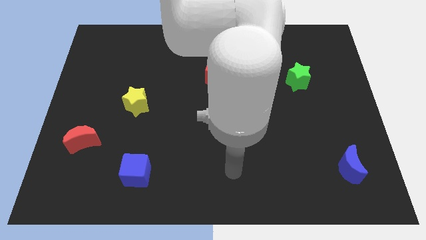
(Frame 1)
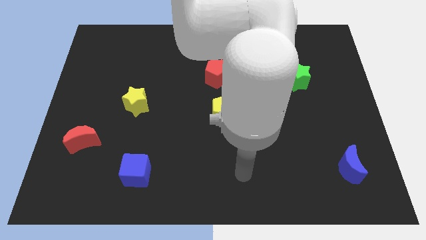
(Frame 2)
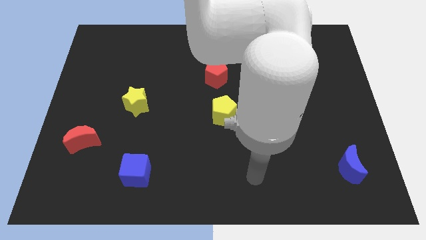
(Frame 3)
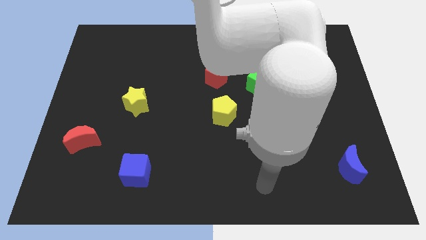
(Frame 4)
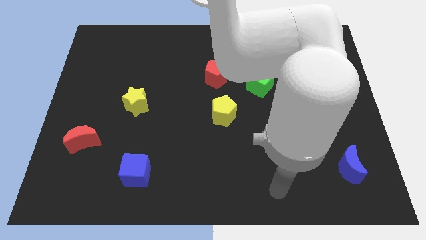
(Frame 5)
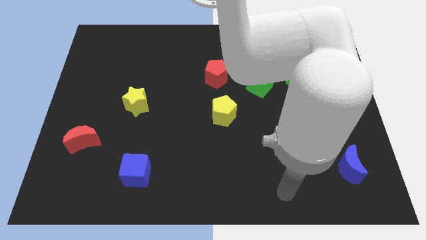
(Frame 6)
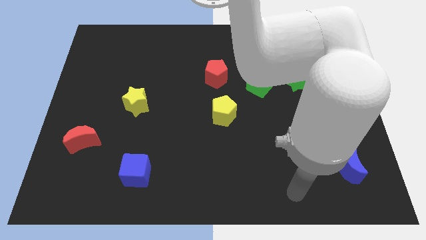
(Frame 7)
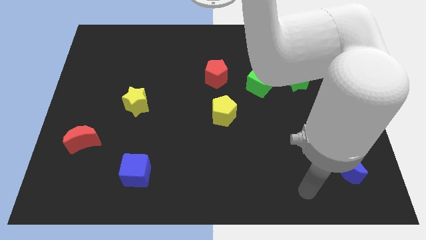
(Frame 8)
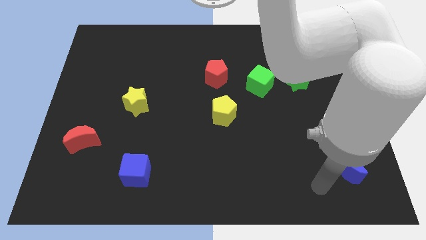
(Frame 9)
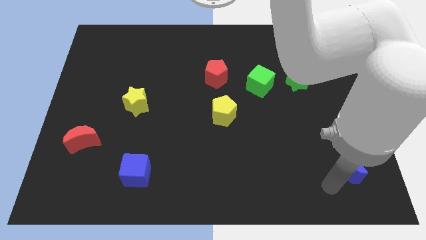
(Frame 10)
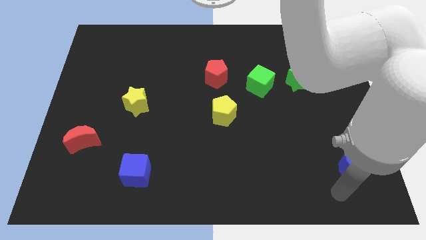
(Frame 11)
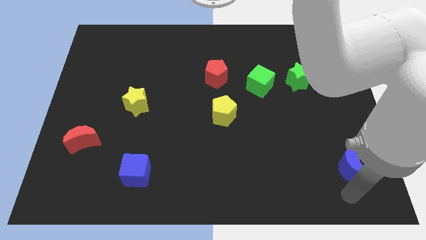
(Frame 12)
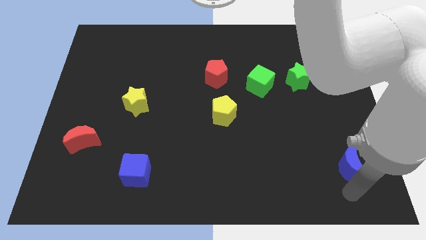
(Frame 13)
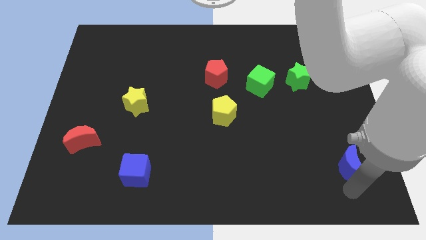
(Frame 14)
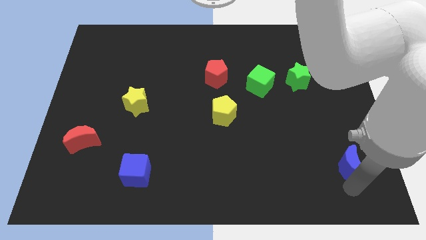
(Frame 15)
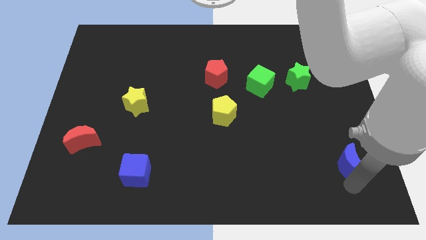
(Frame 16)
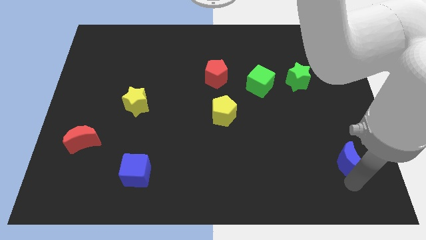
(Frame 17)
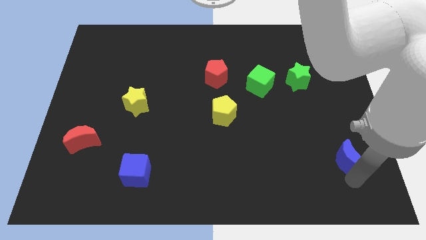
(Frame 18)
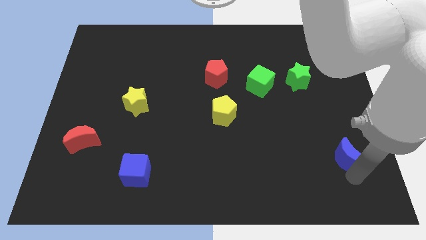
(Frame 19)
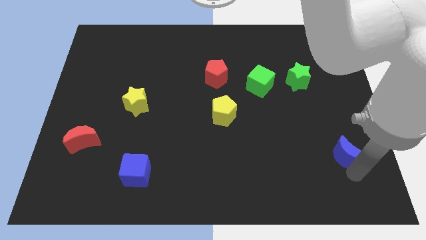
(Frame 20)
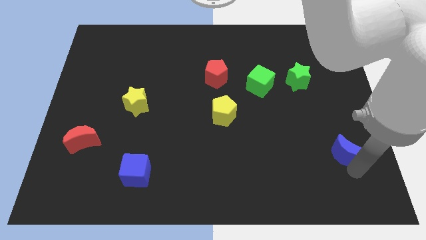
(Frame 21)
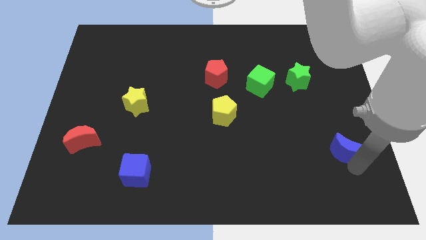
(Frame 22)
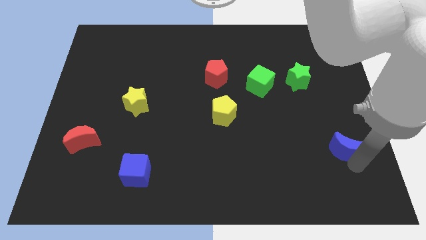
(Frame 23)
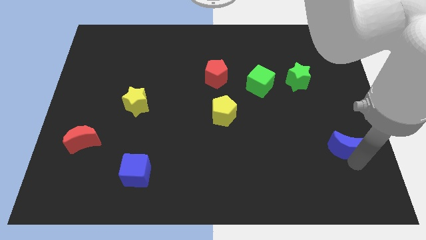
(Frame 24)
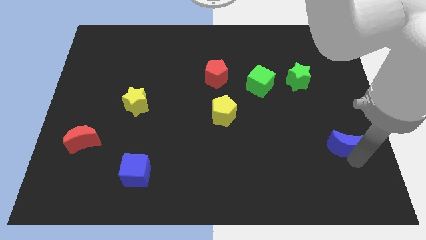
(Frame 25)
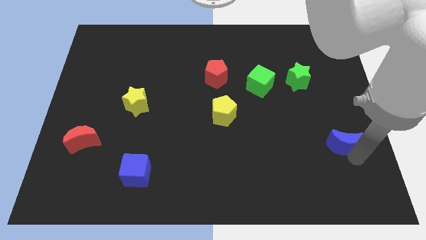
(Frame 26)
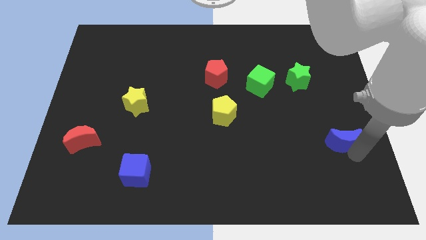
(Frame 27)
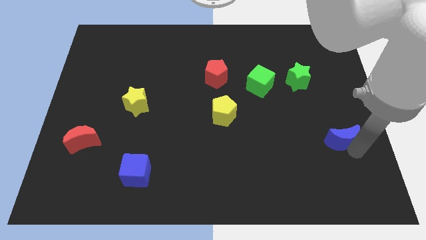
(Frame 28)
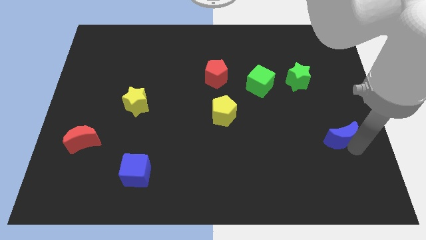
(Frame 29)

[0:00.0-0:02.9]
slightly slide the blue moon up

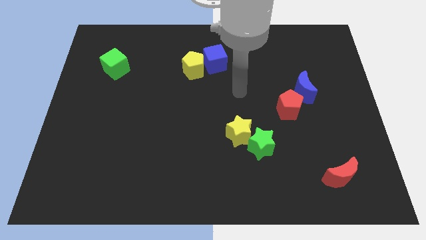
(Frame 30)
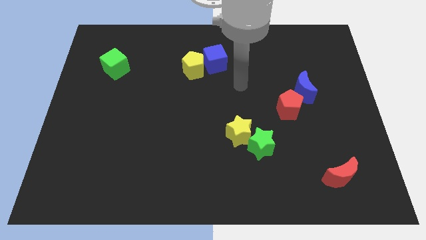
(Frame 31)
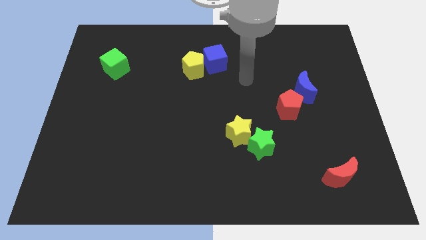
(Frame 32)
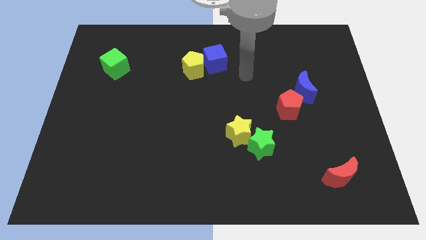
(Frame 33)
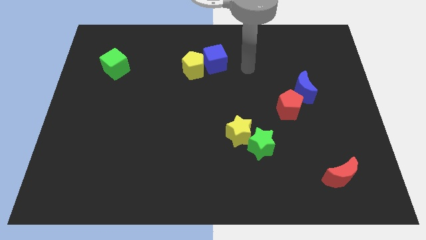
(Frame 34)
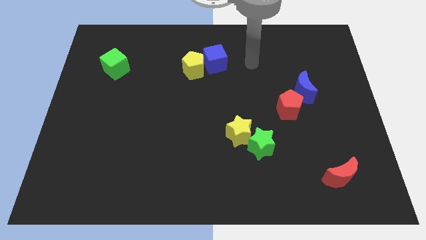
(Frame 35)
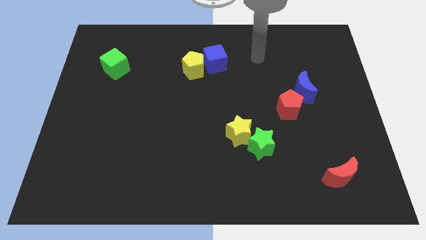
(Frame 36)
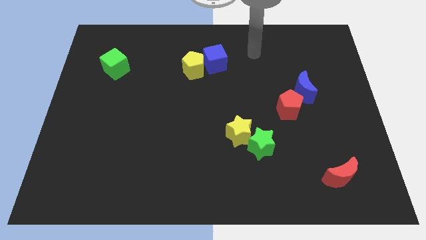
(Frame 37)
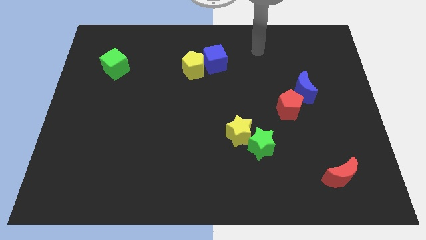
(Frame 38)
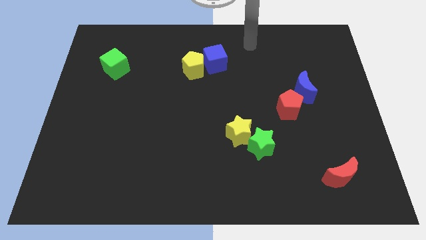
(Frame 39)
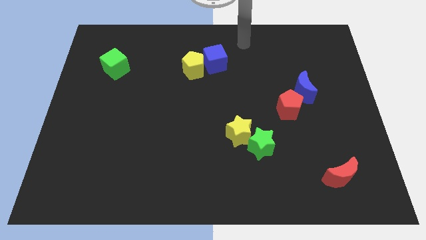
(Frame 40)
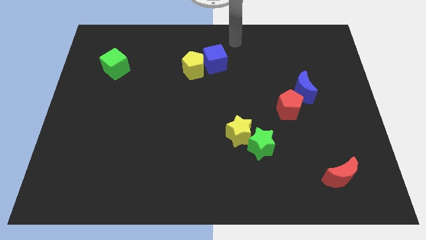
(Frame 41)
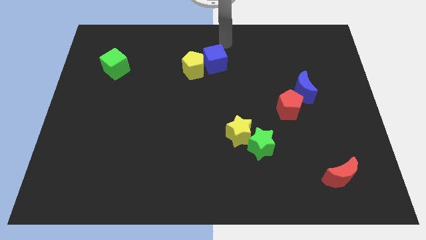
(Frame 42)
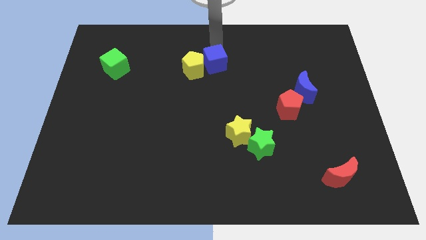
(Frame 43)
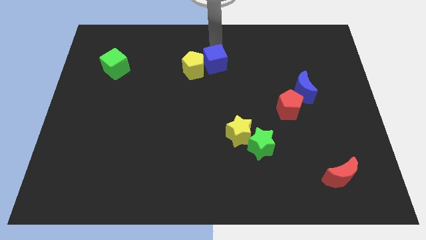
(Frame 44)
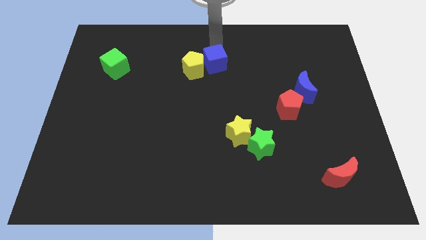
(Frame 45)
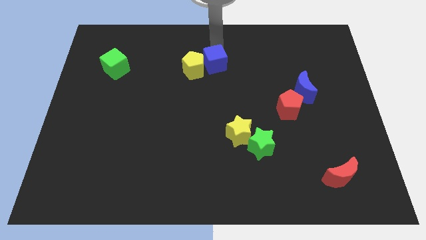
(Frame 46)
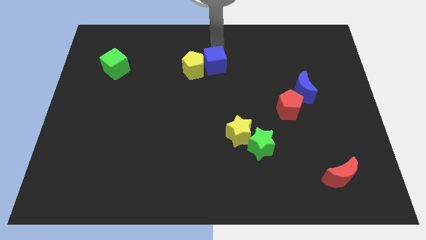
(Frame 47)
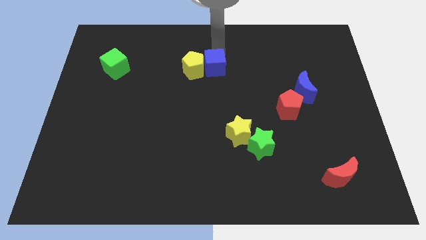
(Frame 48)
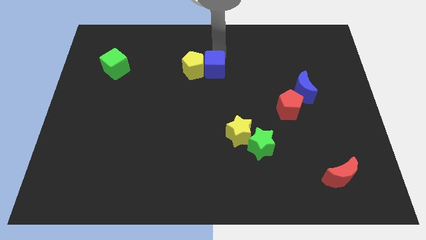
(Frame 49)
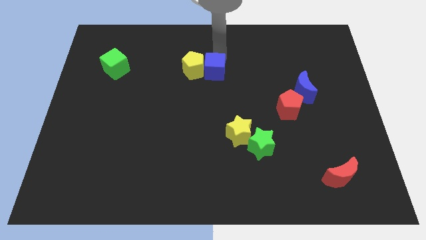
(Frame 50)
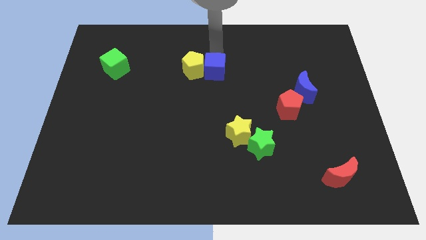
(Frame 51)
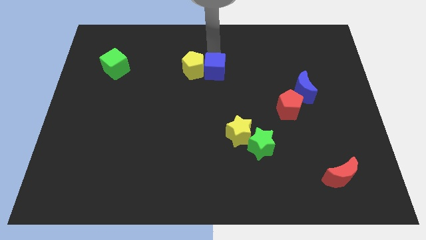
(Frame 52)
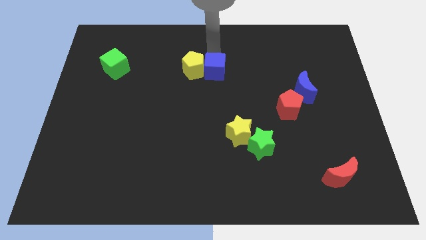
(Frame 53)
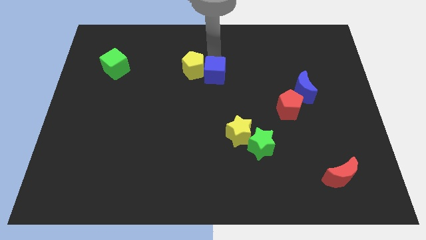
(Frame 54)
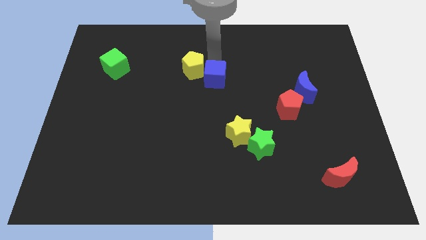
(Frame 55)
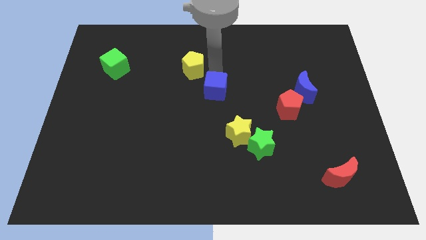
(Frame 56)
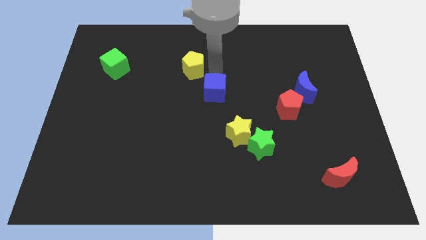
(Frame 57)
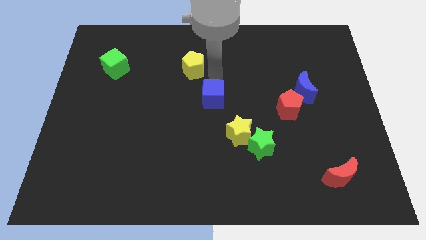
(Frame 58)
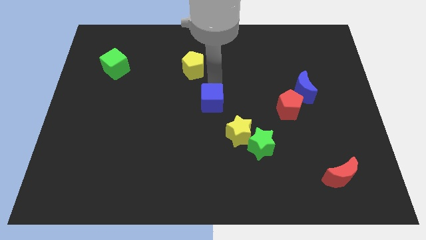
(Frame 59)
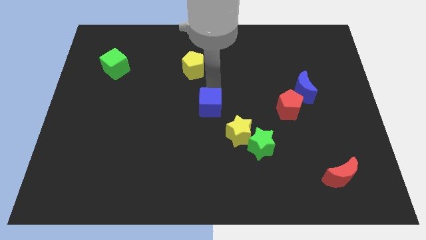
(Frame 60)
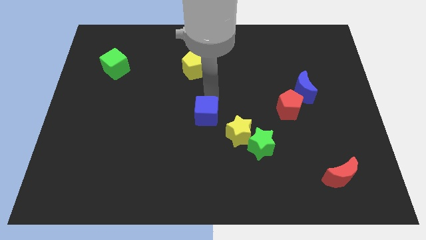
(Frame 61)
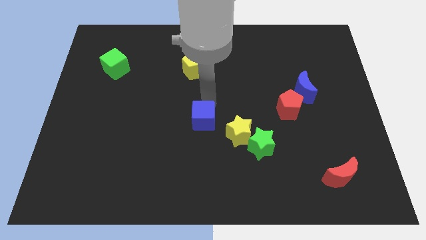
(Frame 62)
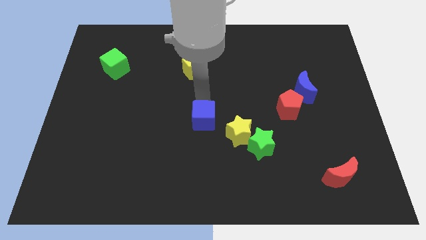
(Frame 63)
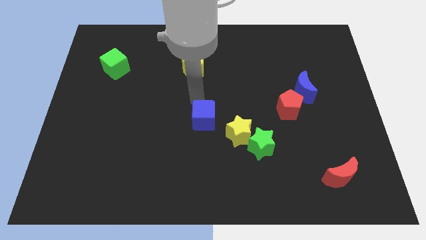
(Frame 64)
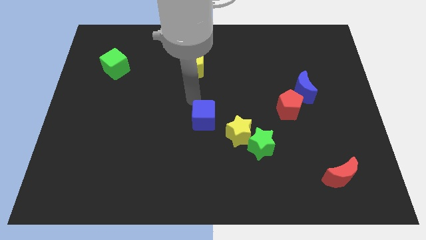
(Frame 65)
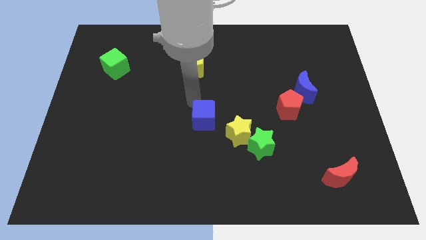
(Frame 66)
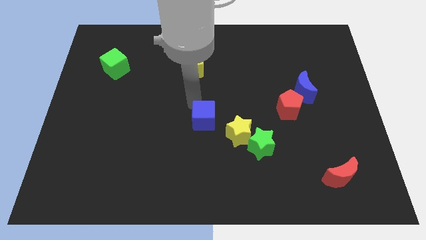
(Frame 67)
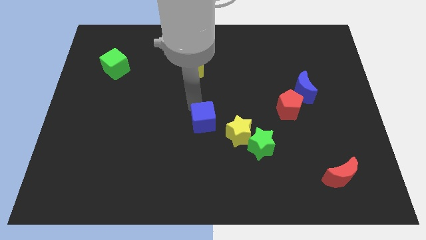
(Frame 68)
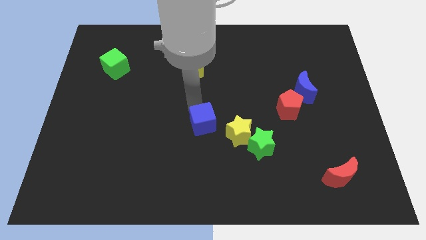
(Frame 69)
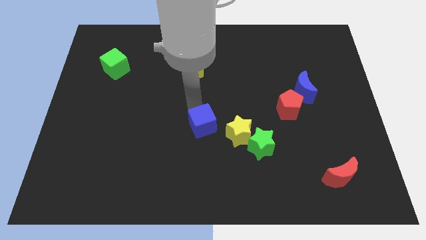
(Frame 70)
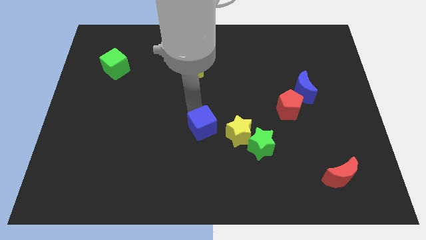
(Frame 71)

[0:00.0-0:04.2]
slide the blue cube downwards

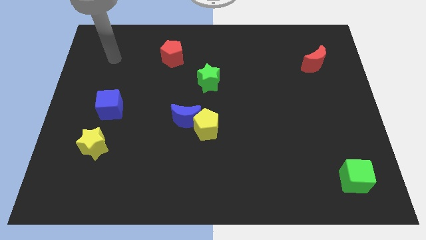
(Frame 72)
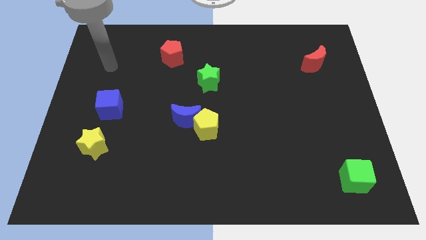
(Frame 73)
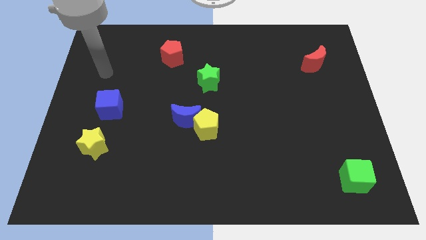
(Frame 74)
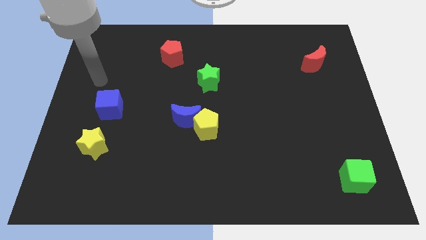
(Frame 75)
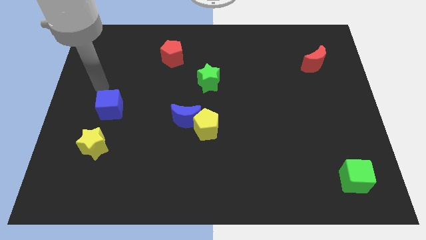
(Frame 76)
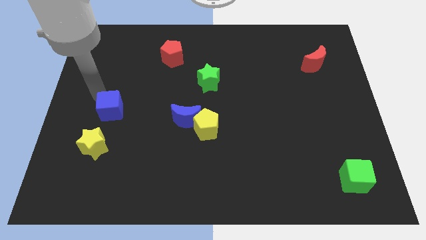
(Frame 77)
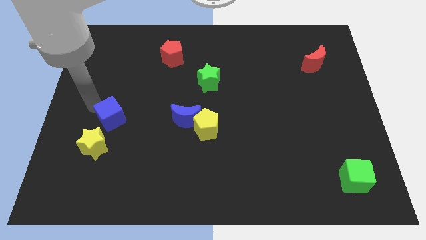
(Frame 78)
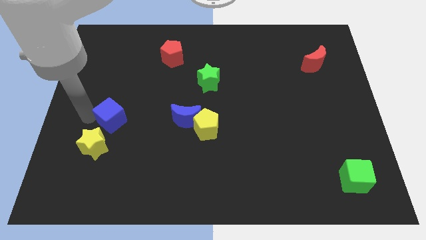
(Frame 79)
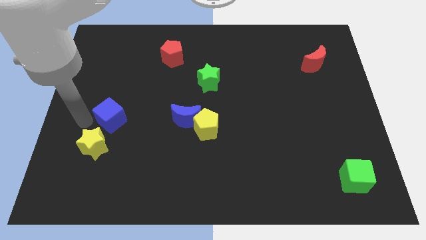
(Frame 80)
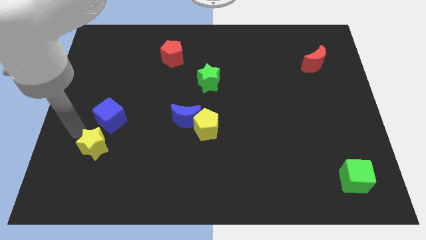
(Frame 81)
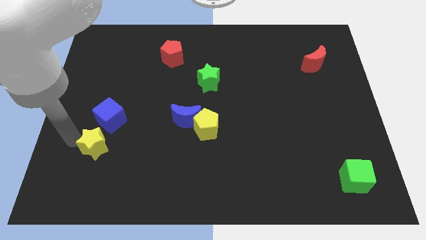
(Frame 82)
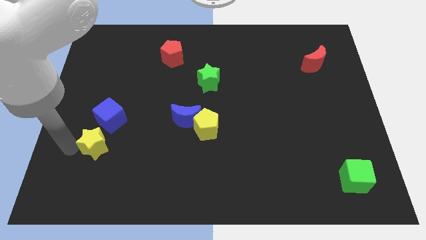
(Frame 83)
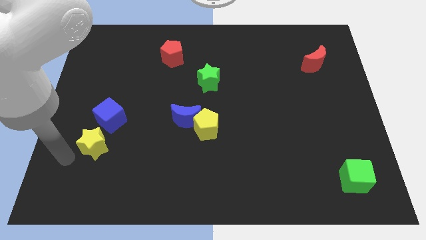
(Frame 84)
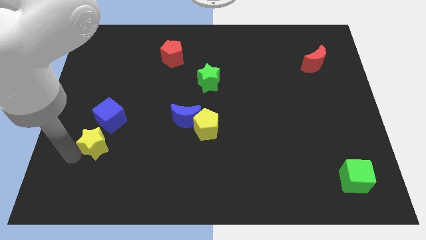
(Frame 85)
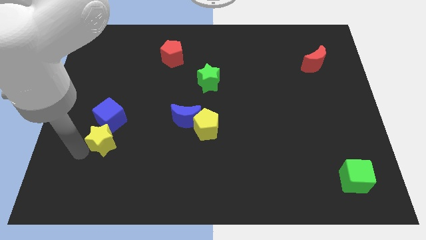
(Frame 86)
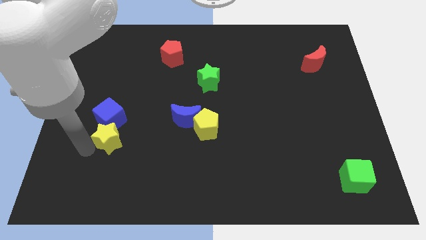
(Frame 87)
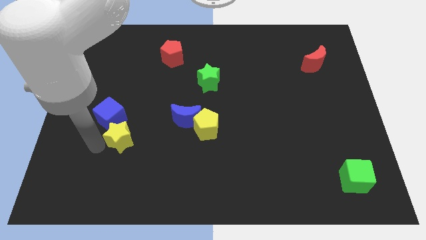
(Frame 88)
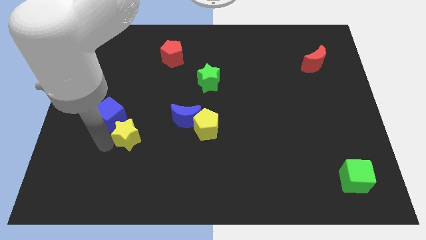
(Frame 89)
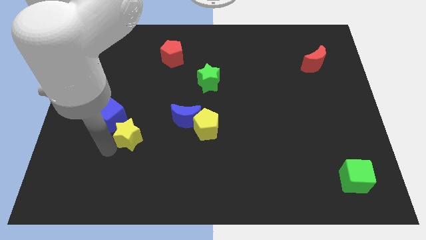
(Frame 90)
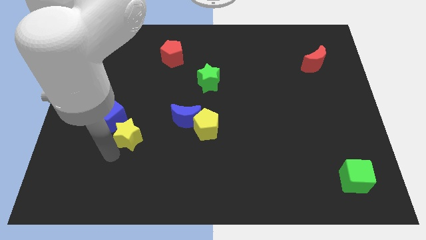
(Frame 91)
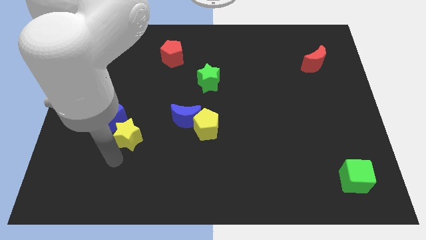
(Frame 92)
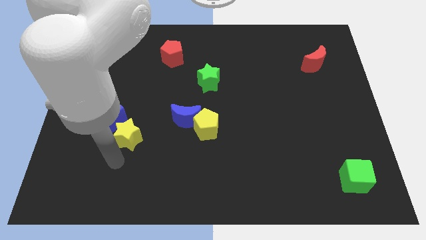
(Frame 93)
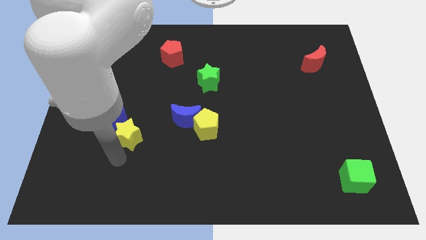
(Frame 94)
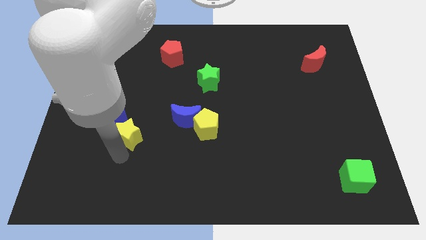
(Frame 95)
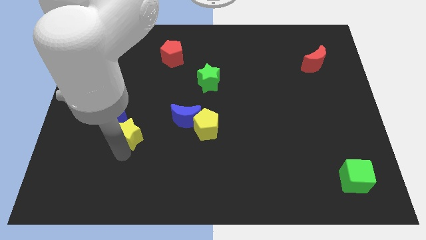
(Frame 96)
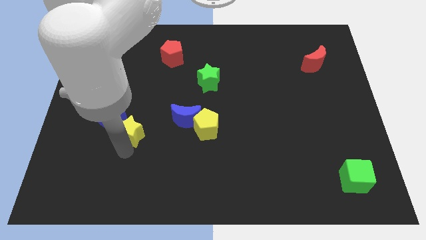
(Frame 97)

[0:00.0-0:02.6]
push the yellow star up and then to the right a little bit
